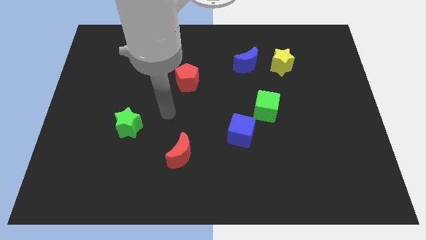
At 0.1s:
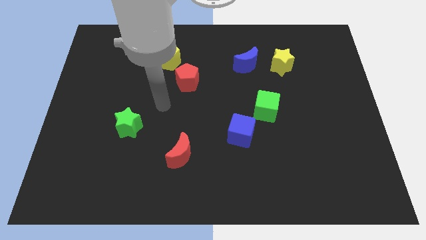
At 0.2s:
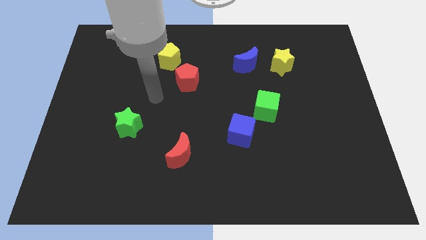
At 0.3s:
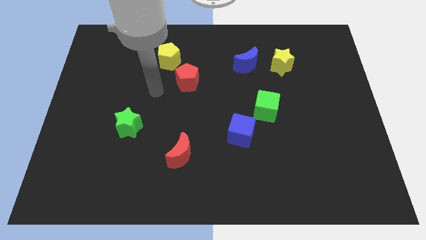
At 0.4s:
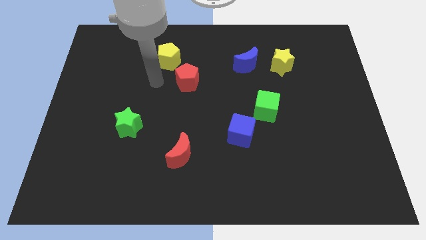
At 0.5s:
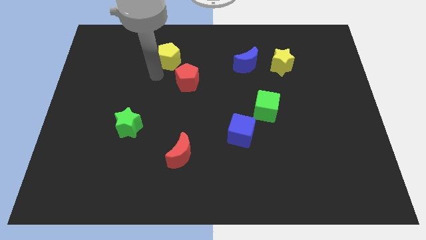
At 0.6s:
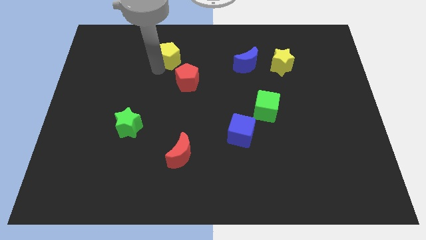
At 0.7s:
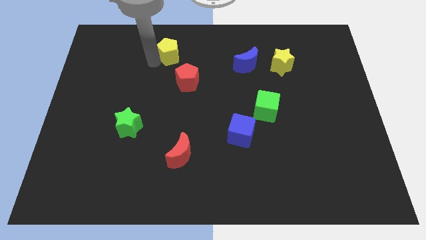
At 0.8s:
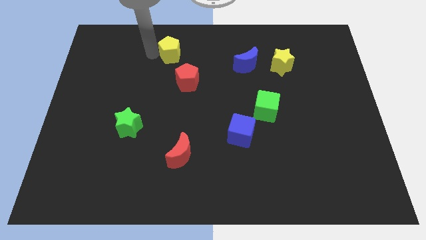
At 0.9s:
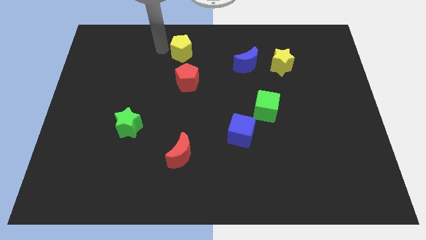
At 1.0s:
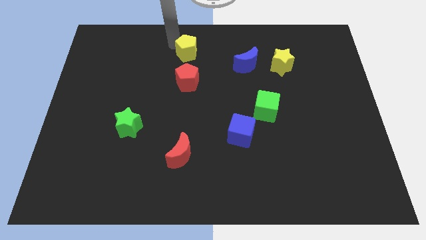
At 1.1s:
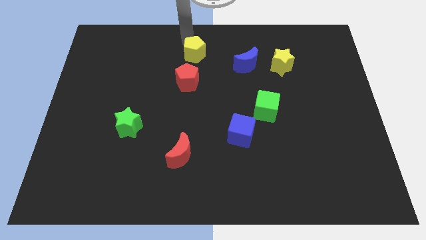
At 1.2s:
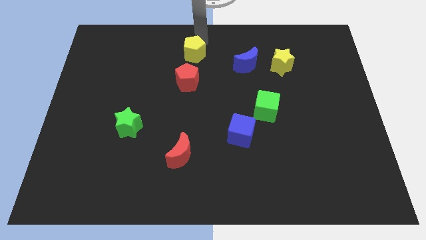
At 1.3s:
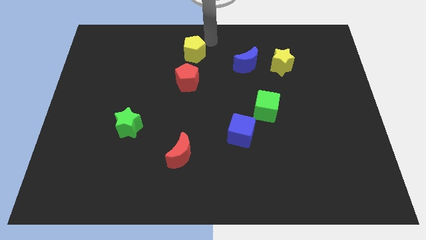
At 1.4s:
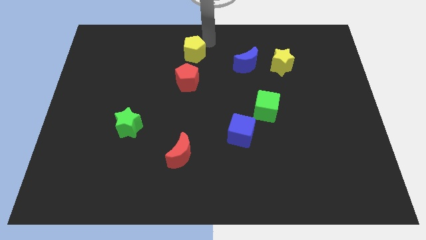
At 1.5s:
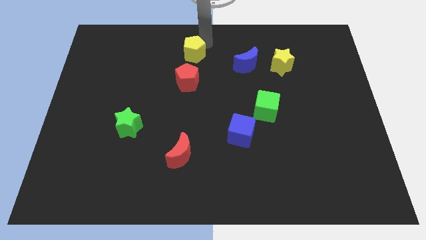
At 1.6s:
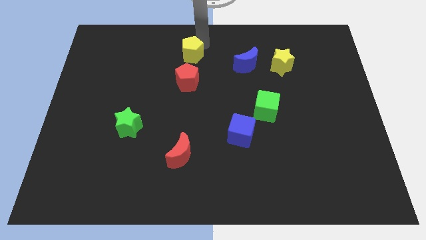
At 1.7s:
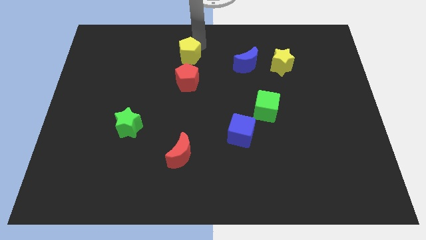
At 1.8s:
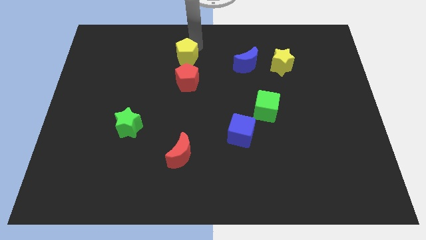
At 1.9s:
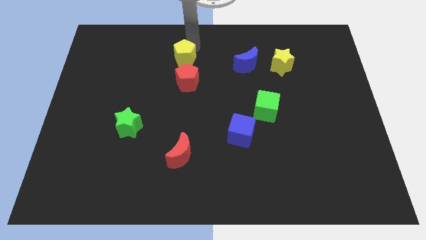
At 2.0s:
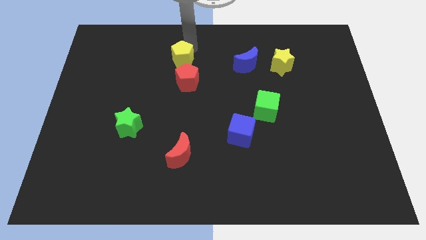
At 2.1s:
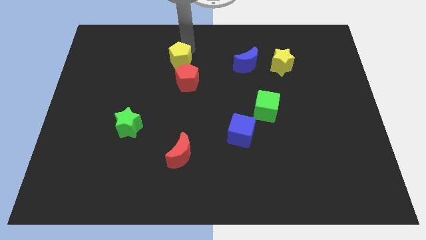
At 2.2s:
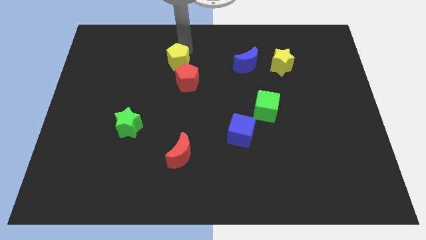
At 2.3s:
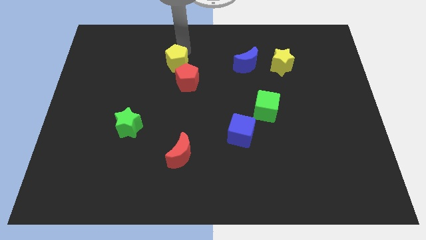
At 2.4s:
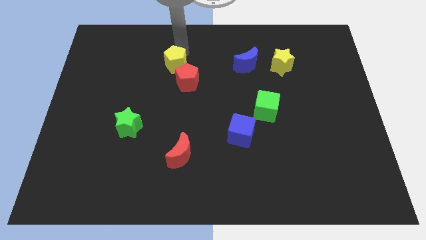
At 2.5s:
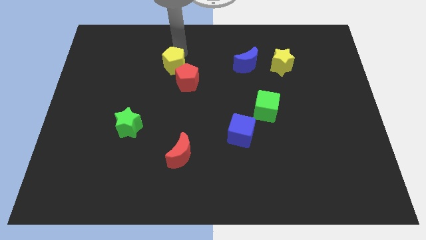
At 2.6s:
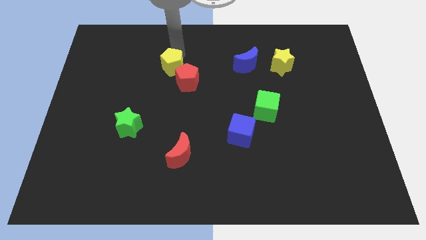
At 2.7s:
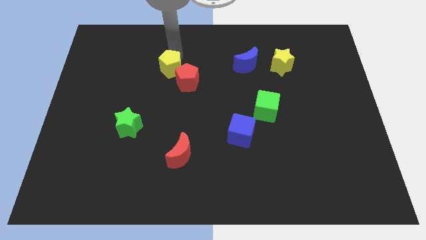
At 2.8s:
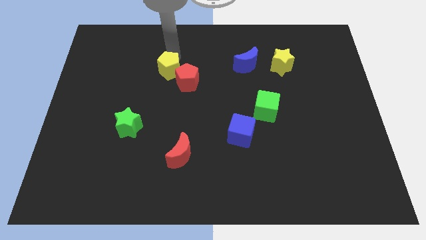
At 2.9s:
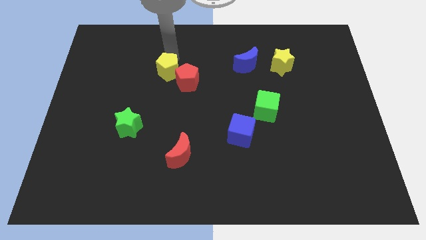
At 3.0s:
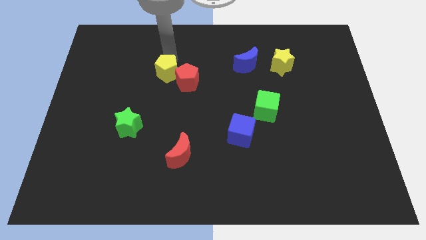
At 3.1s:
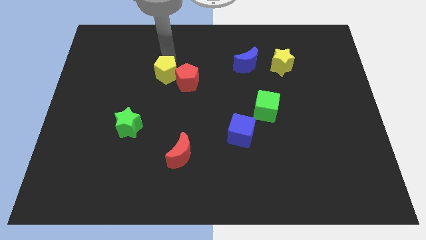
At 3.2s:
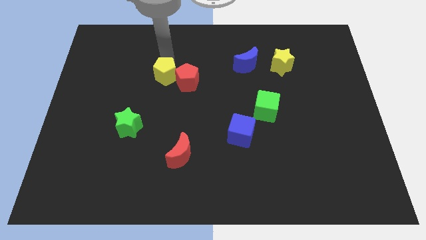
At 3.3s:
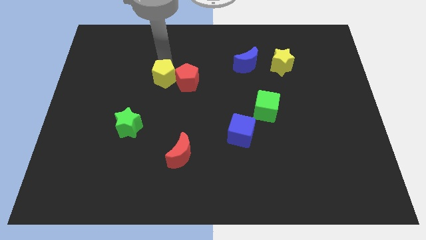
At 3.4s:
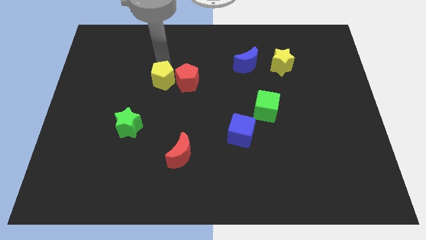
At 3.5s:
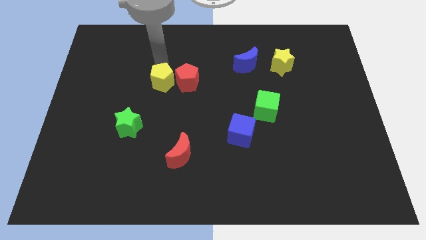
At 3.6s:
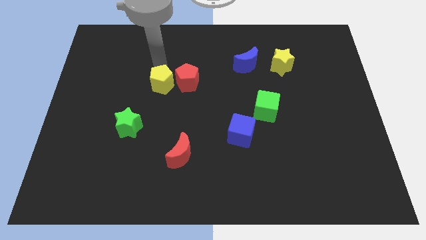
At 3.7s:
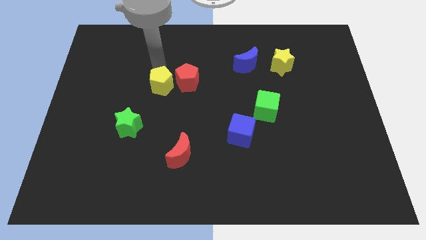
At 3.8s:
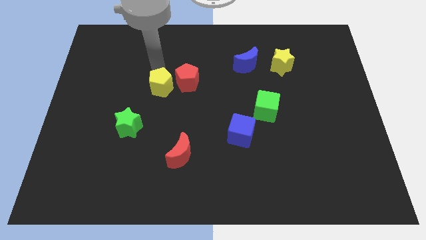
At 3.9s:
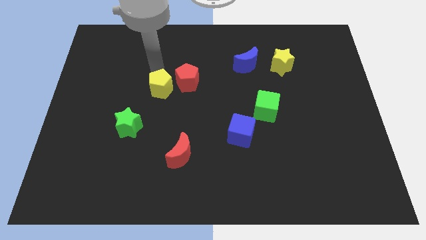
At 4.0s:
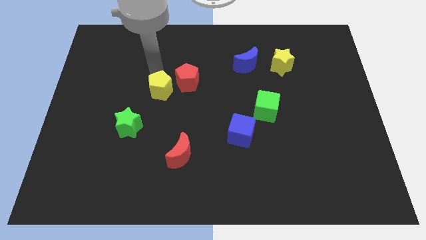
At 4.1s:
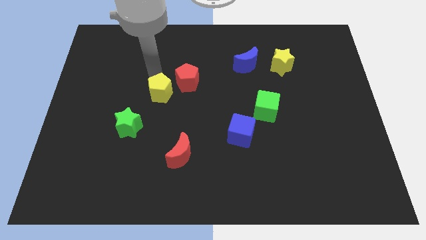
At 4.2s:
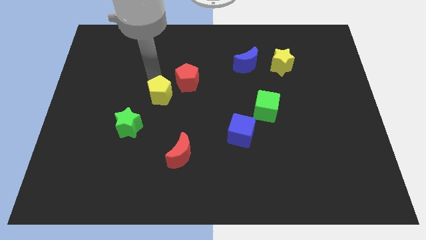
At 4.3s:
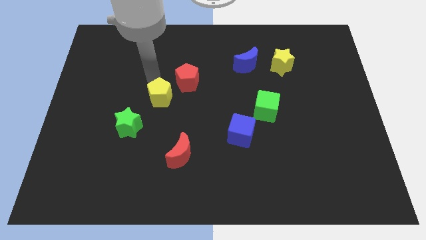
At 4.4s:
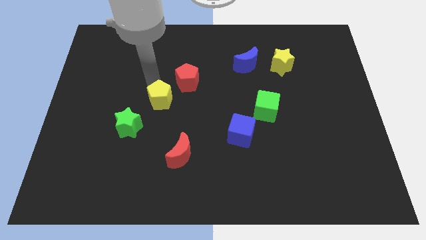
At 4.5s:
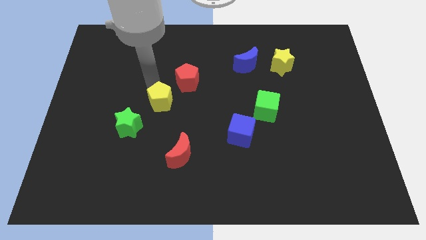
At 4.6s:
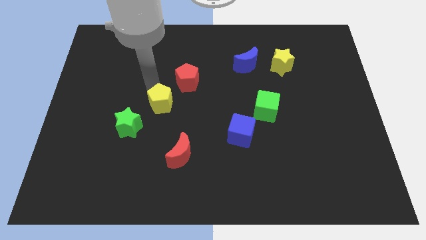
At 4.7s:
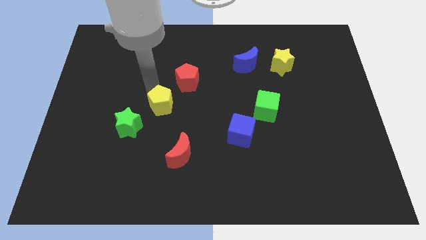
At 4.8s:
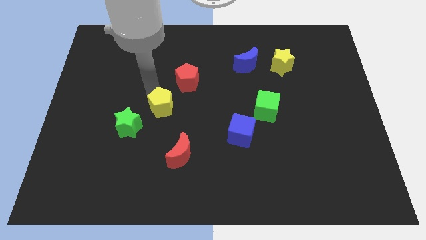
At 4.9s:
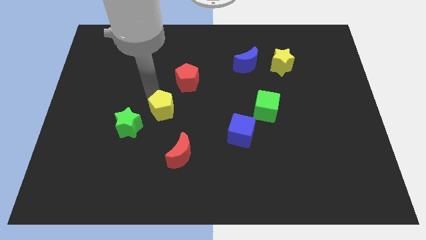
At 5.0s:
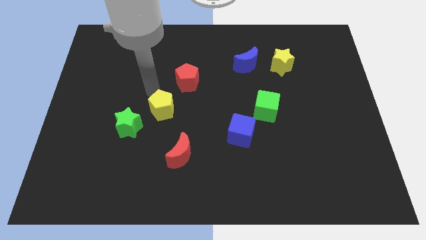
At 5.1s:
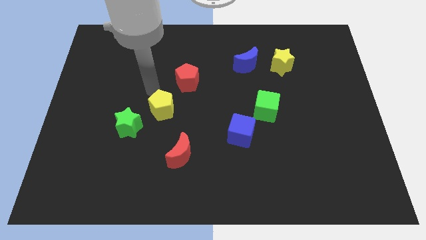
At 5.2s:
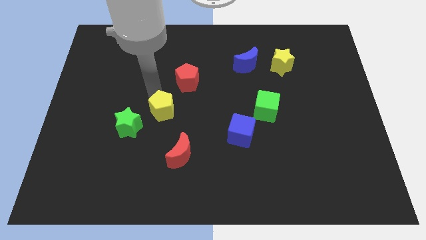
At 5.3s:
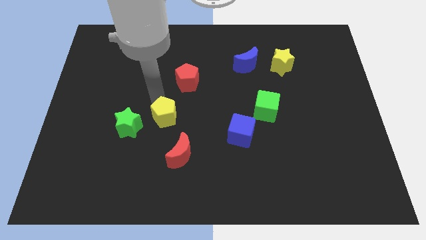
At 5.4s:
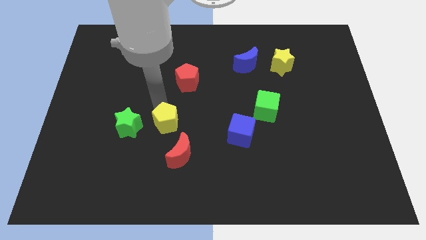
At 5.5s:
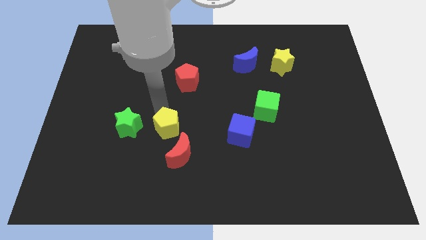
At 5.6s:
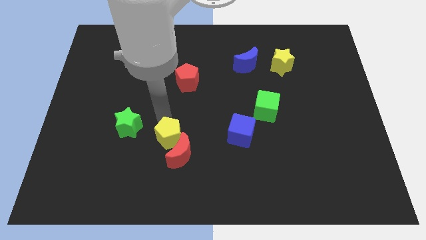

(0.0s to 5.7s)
put the yellow pentagon to the red moon

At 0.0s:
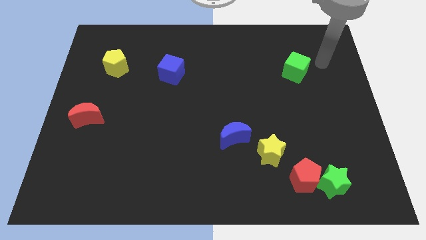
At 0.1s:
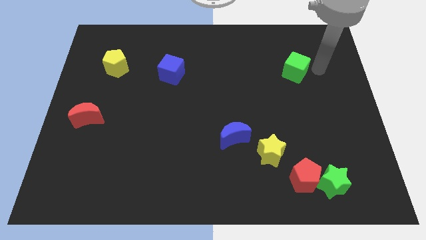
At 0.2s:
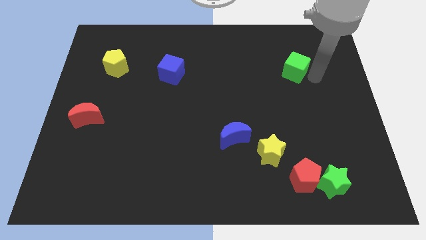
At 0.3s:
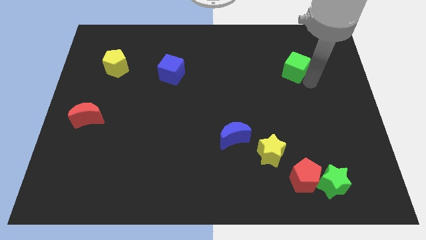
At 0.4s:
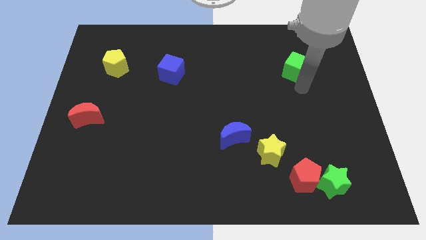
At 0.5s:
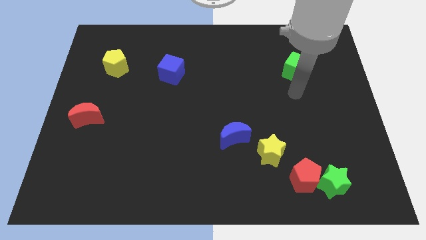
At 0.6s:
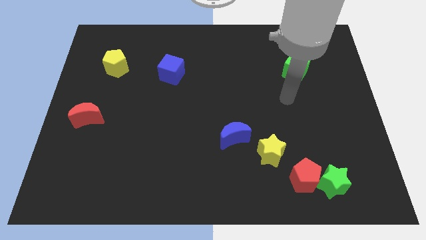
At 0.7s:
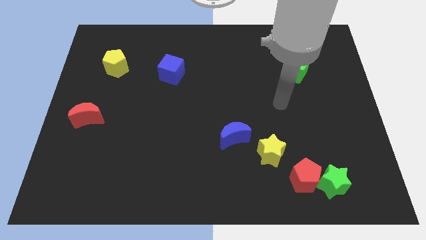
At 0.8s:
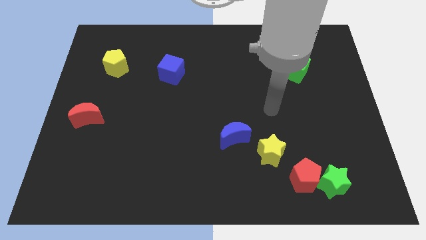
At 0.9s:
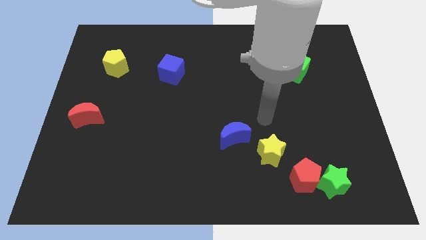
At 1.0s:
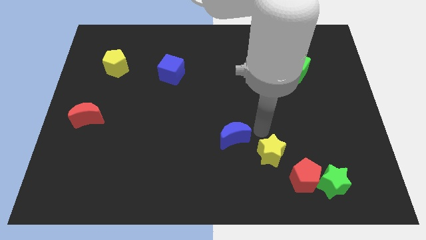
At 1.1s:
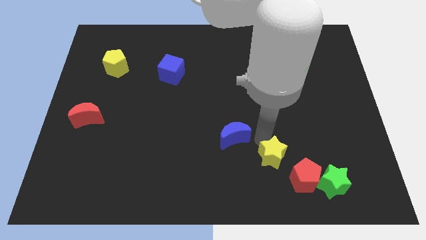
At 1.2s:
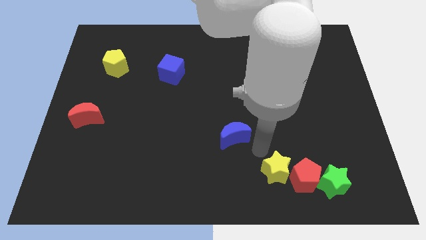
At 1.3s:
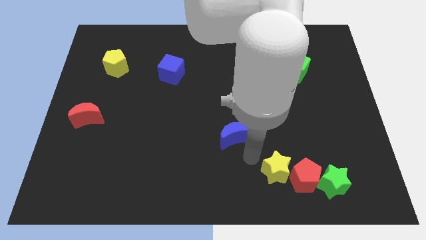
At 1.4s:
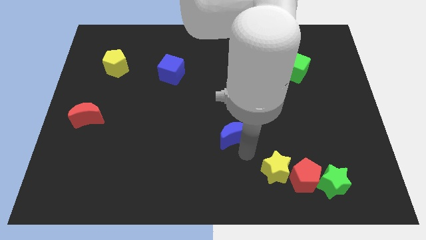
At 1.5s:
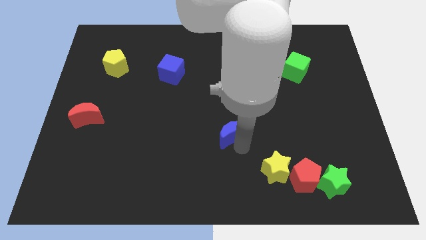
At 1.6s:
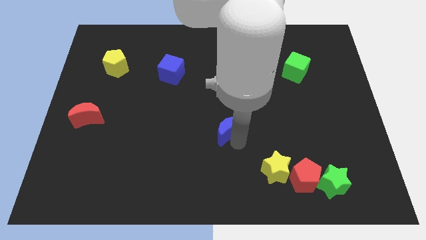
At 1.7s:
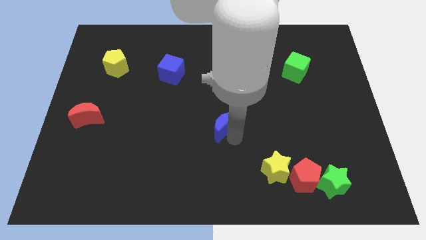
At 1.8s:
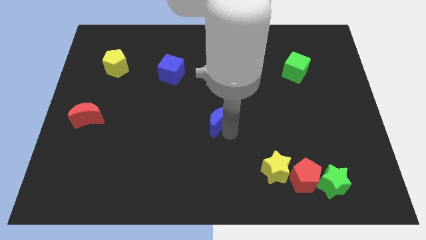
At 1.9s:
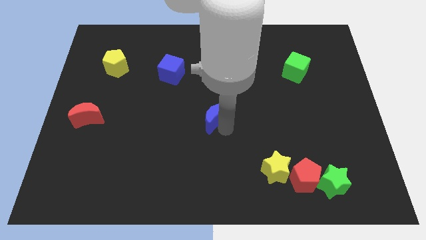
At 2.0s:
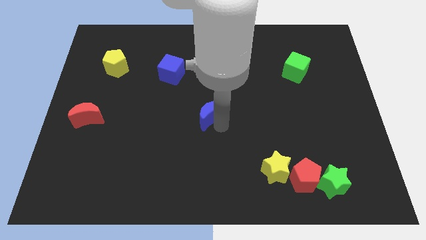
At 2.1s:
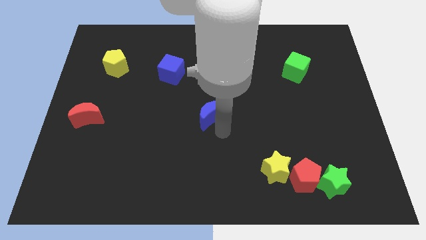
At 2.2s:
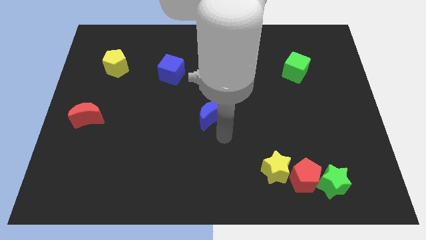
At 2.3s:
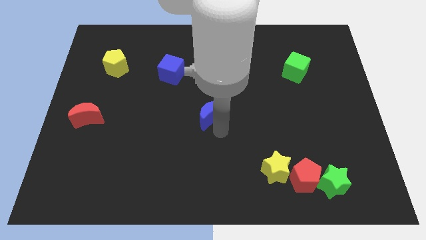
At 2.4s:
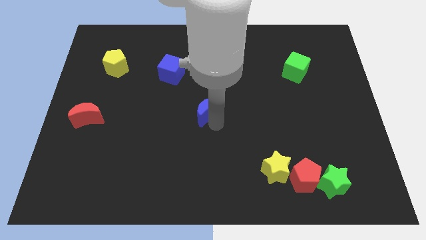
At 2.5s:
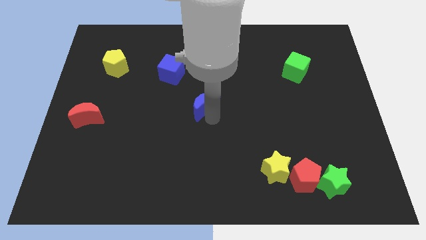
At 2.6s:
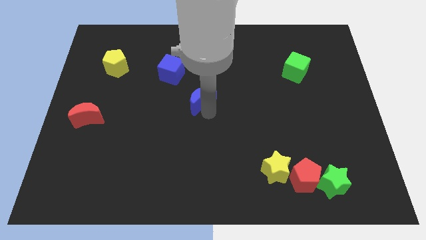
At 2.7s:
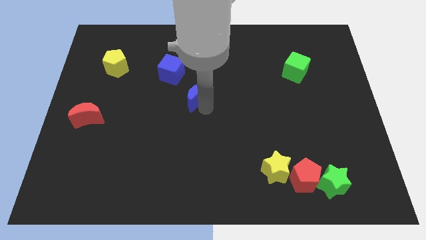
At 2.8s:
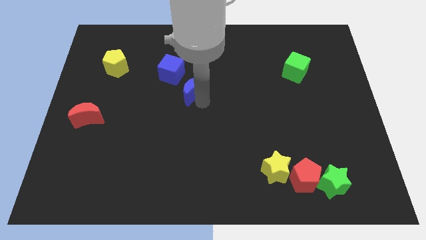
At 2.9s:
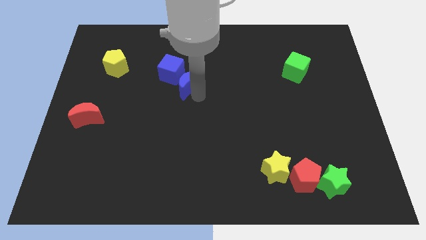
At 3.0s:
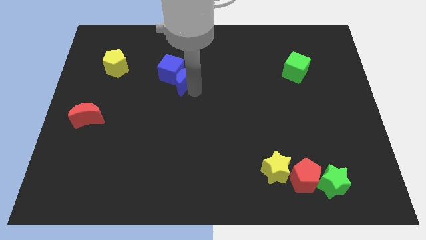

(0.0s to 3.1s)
move the blue moon next to the blue cube
